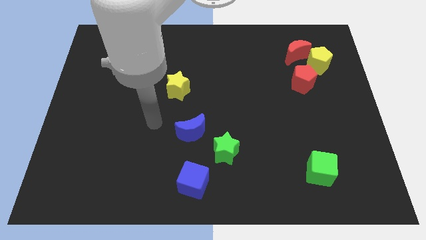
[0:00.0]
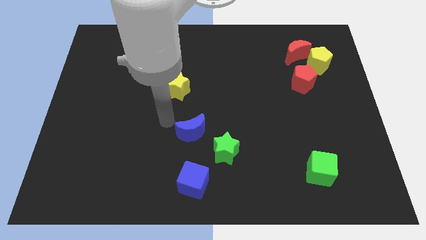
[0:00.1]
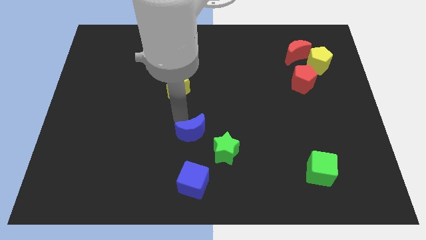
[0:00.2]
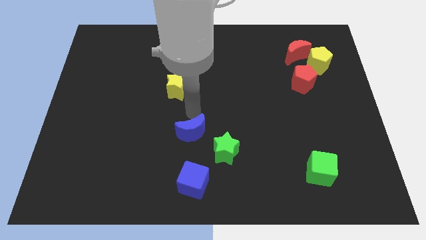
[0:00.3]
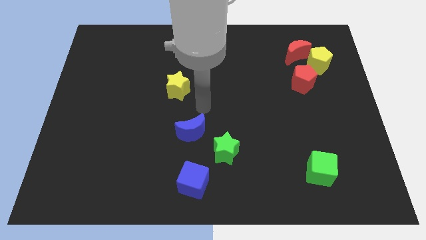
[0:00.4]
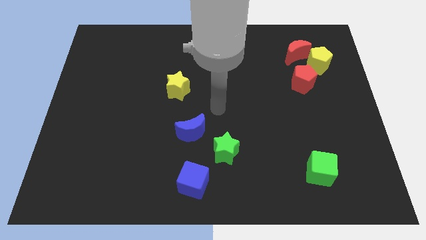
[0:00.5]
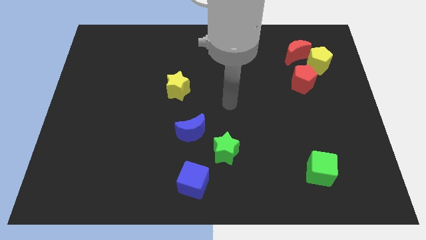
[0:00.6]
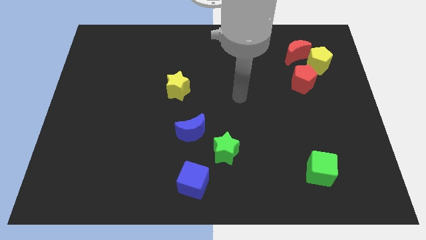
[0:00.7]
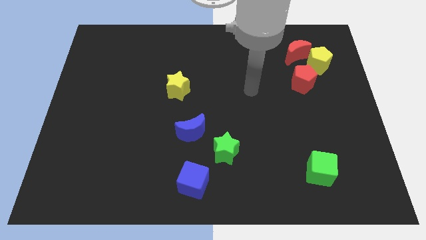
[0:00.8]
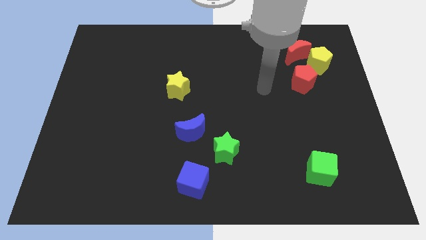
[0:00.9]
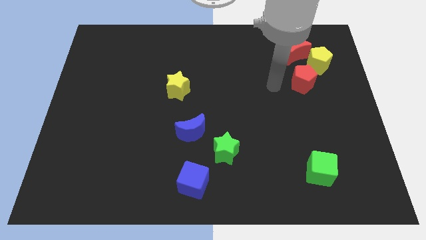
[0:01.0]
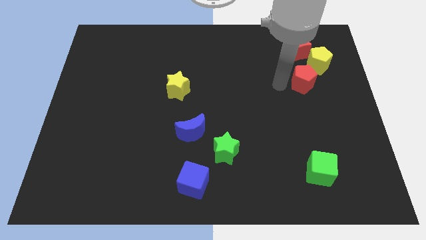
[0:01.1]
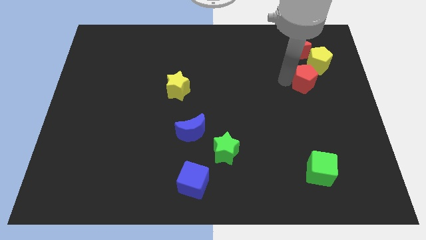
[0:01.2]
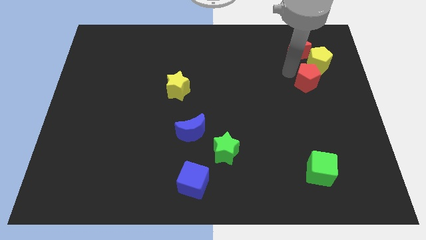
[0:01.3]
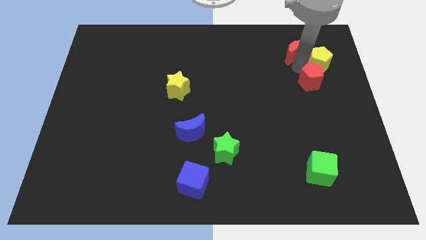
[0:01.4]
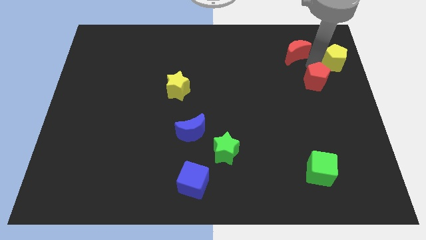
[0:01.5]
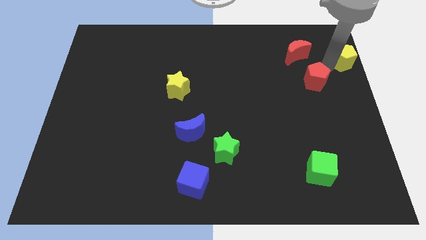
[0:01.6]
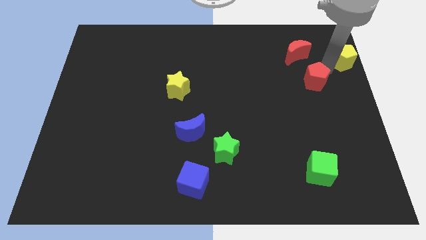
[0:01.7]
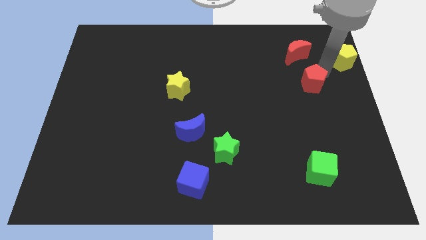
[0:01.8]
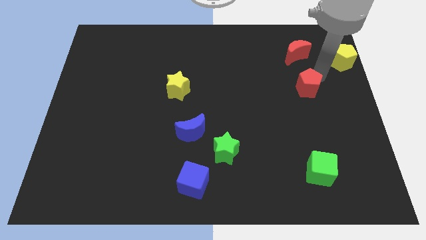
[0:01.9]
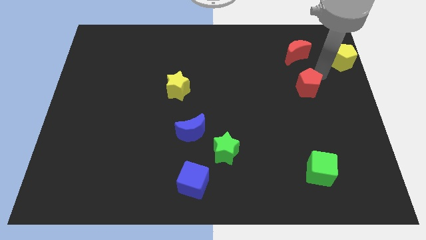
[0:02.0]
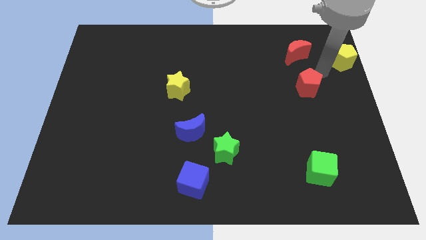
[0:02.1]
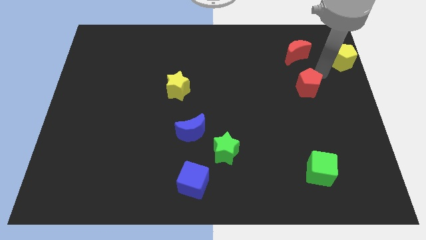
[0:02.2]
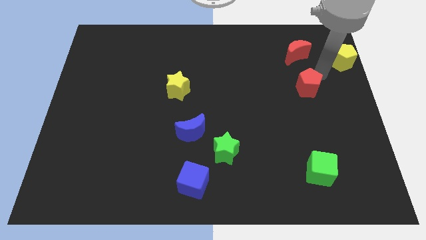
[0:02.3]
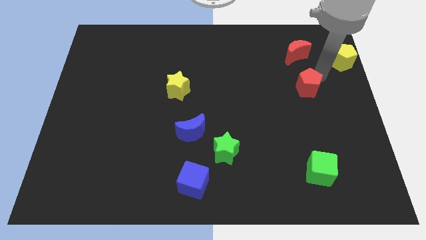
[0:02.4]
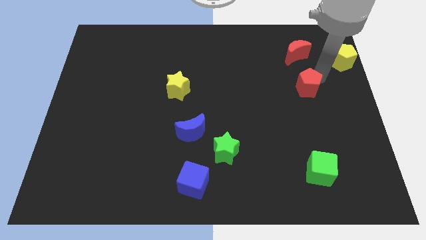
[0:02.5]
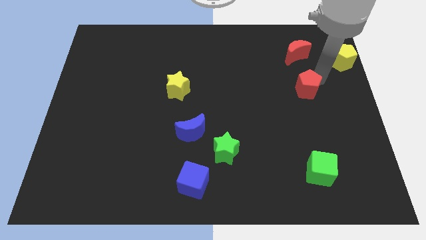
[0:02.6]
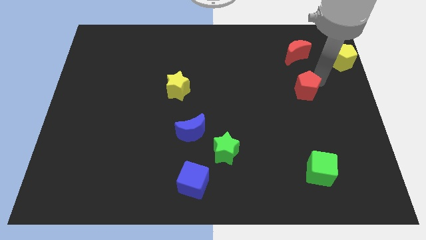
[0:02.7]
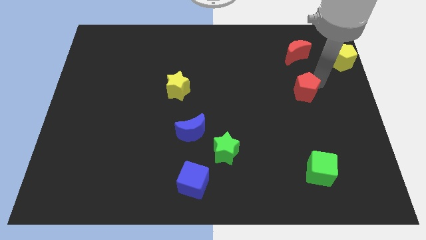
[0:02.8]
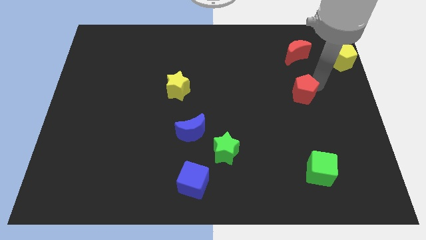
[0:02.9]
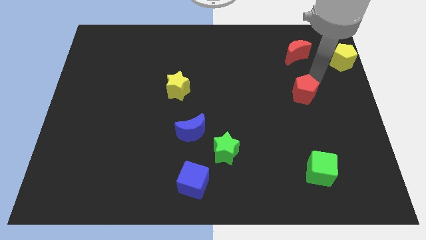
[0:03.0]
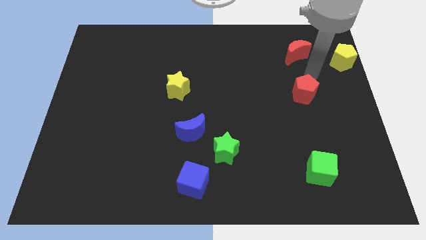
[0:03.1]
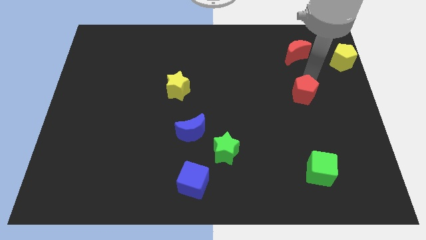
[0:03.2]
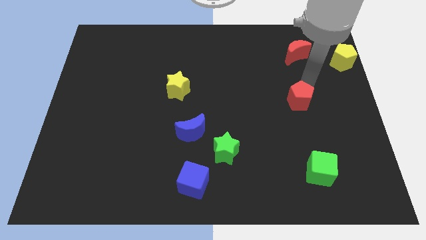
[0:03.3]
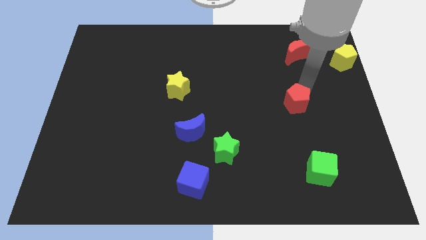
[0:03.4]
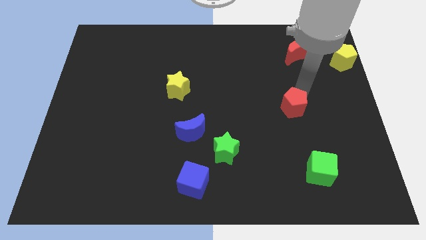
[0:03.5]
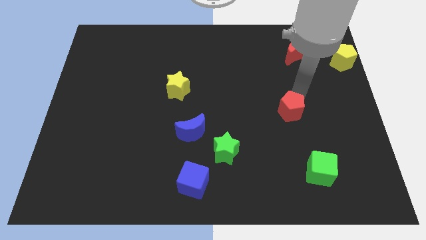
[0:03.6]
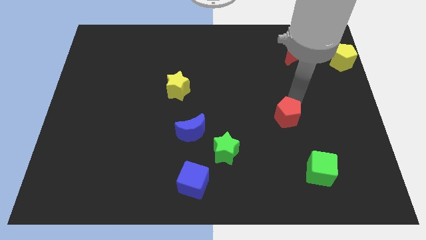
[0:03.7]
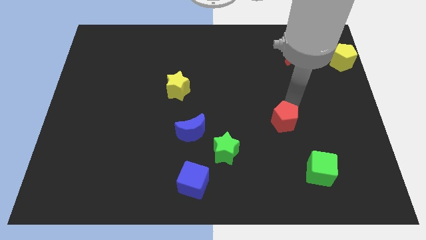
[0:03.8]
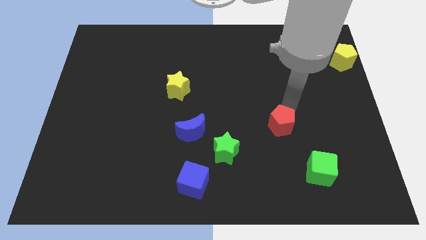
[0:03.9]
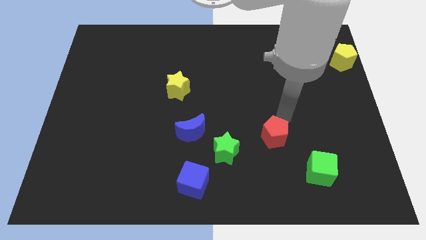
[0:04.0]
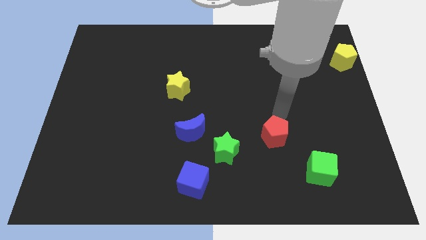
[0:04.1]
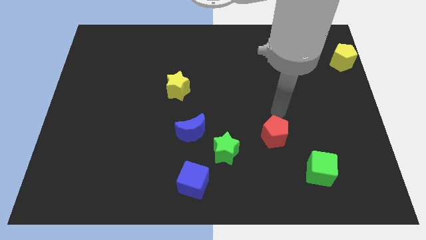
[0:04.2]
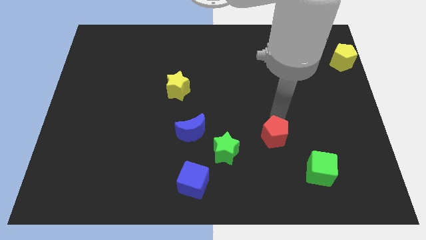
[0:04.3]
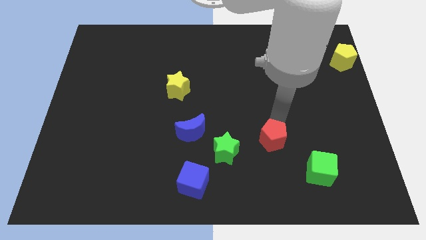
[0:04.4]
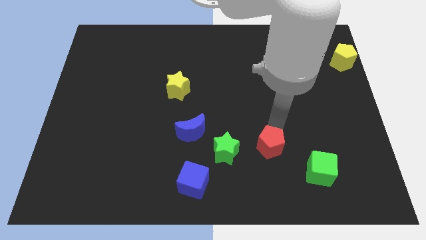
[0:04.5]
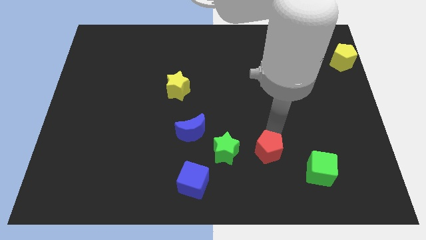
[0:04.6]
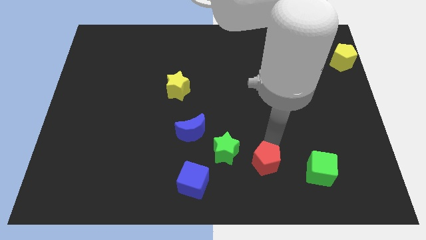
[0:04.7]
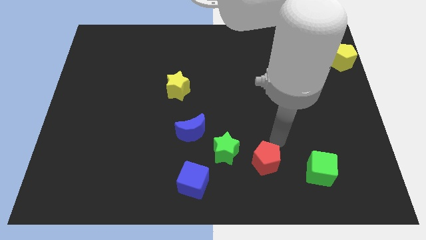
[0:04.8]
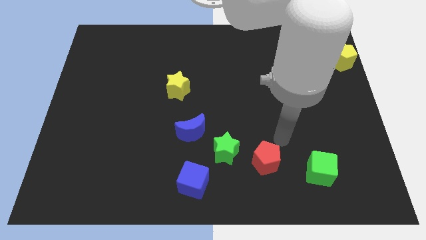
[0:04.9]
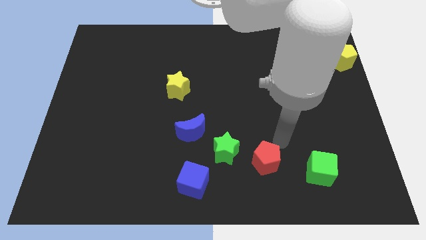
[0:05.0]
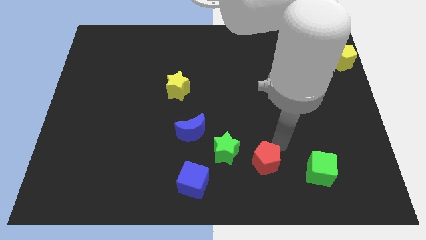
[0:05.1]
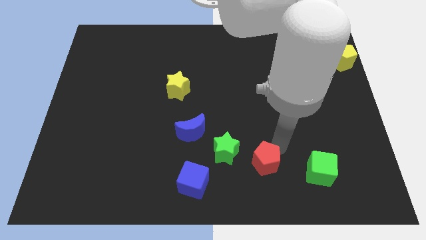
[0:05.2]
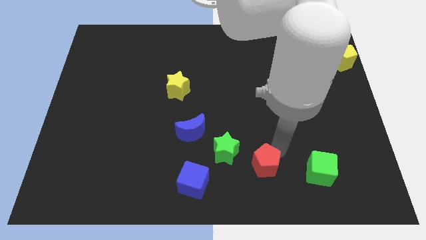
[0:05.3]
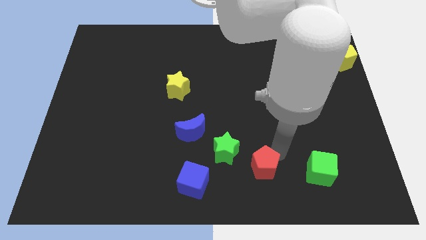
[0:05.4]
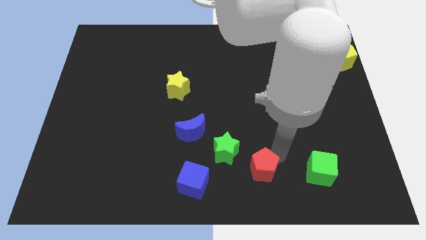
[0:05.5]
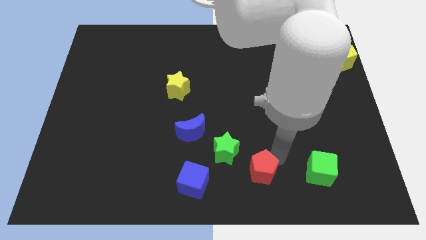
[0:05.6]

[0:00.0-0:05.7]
slide the red pentagon to the bottom

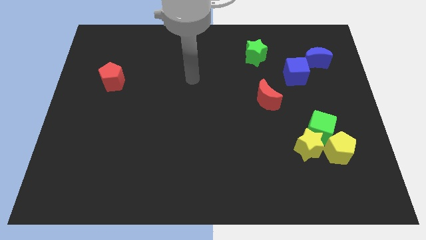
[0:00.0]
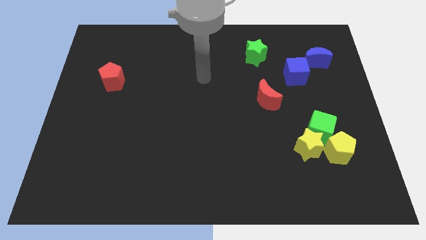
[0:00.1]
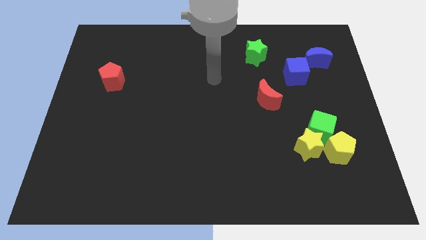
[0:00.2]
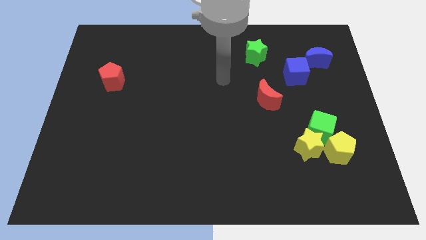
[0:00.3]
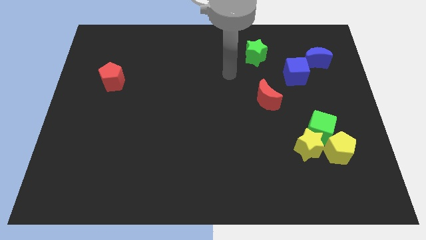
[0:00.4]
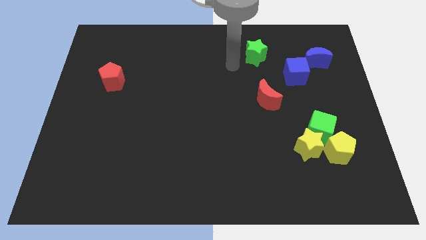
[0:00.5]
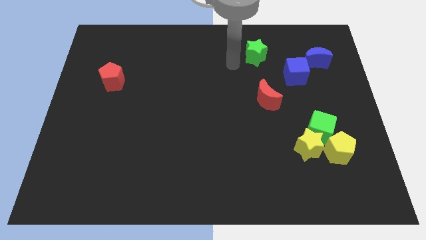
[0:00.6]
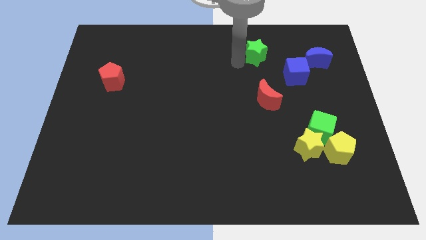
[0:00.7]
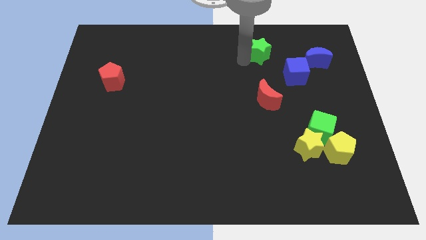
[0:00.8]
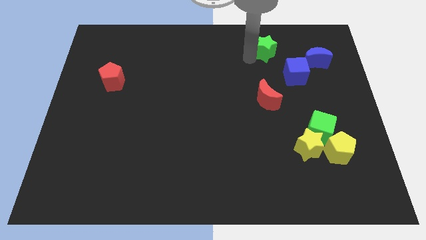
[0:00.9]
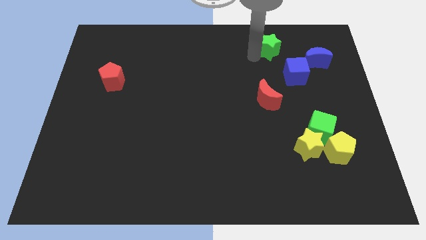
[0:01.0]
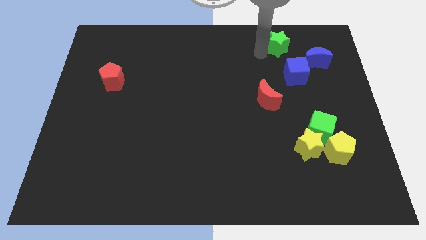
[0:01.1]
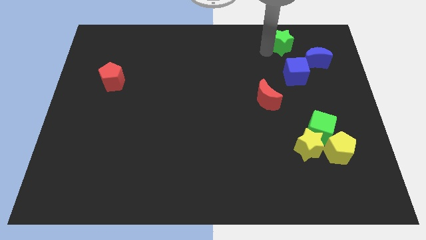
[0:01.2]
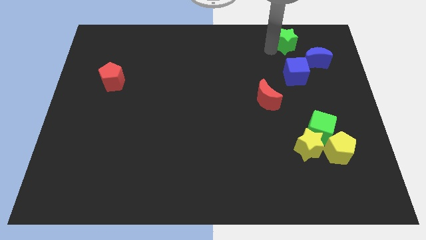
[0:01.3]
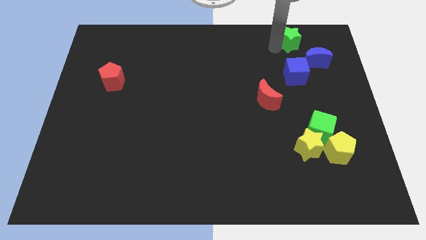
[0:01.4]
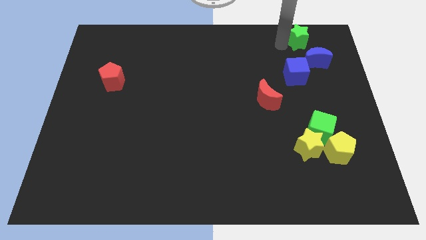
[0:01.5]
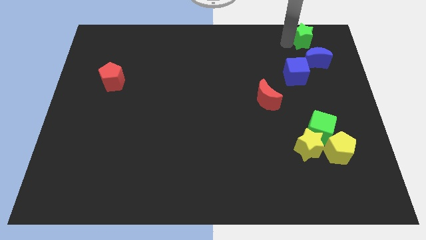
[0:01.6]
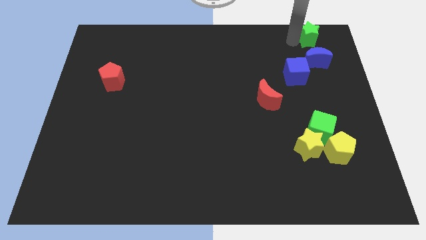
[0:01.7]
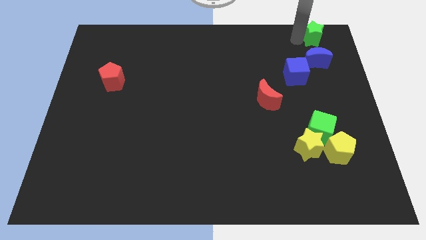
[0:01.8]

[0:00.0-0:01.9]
put the green star to the top right corner
